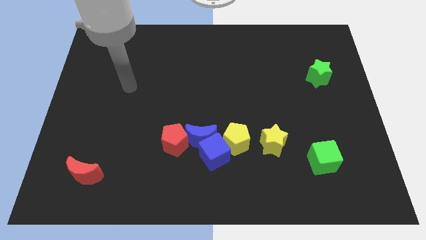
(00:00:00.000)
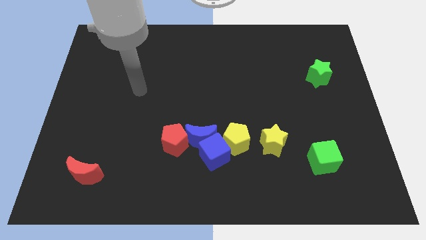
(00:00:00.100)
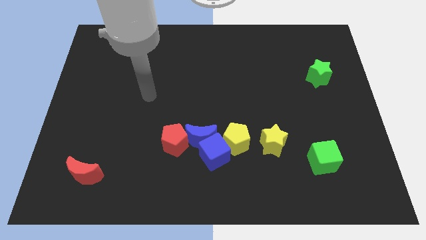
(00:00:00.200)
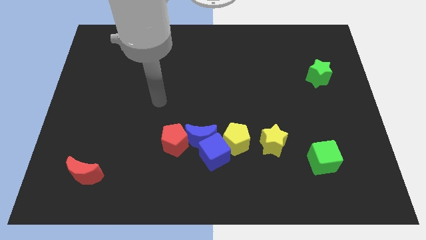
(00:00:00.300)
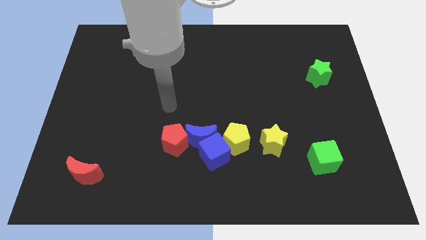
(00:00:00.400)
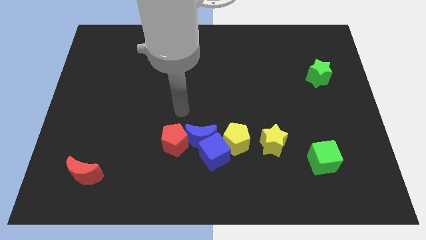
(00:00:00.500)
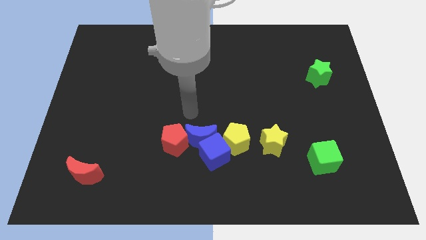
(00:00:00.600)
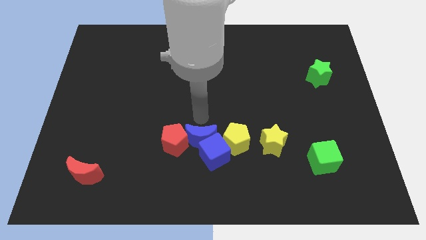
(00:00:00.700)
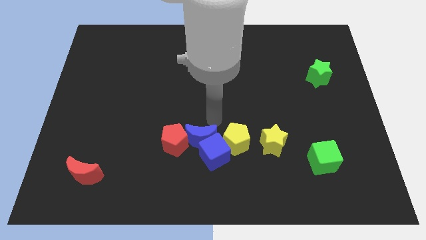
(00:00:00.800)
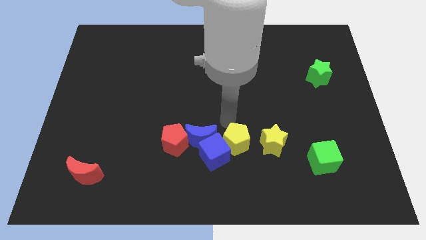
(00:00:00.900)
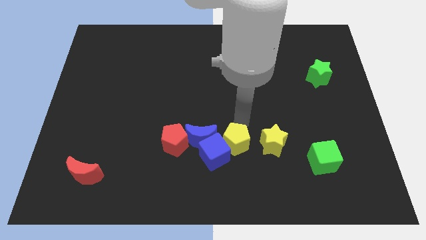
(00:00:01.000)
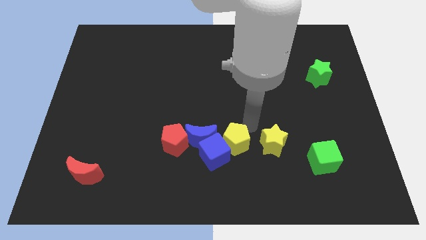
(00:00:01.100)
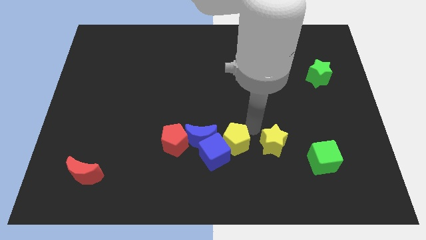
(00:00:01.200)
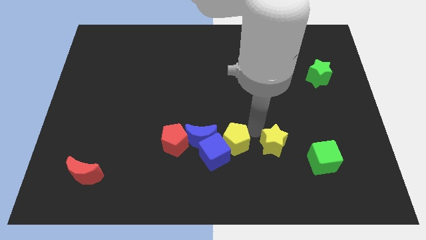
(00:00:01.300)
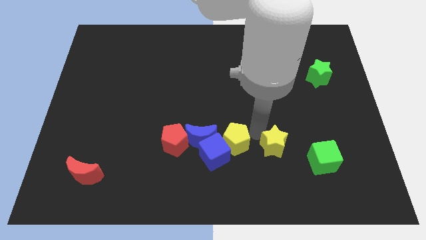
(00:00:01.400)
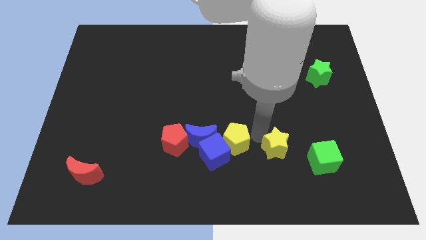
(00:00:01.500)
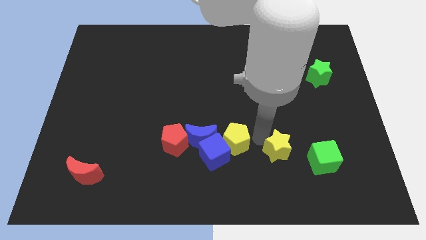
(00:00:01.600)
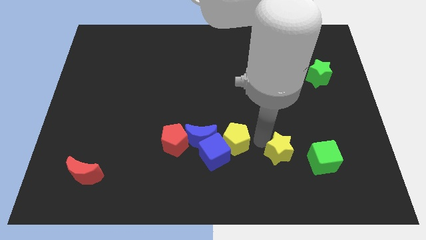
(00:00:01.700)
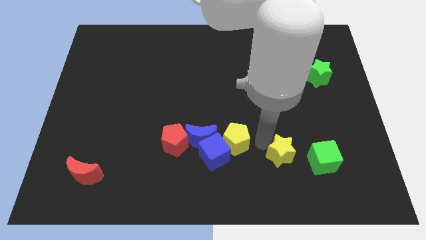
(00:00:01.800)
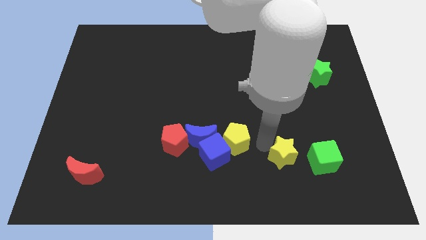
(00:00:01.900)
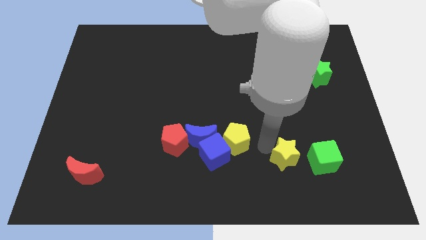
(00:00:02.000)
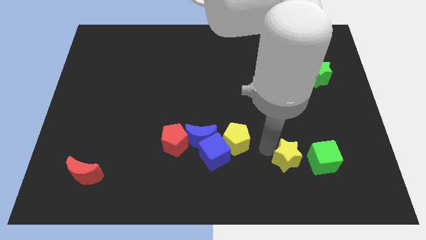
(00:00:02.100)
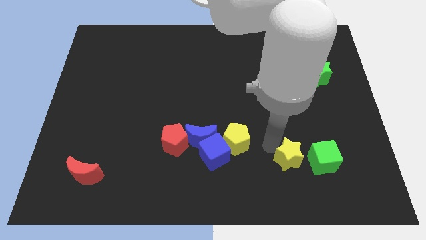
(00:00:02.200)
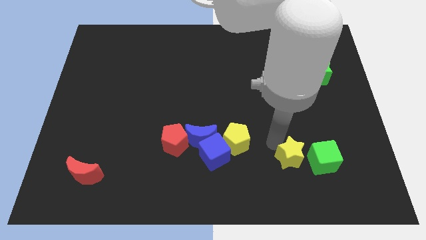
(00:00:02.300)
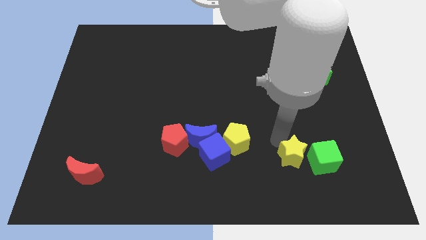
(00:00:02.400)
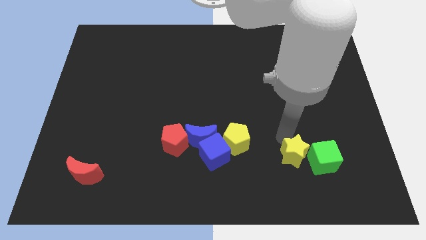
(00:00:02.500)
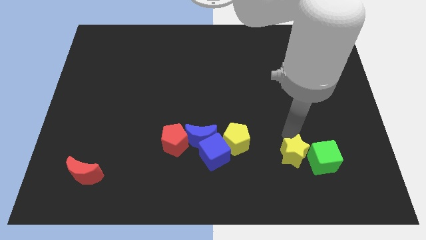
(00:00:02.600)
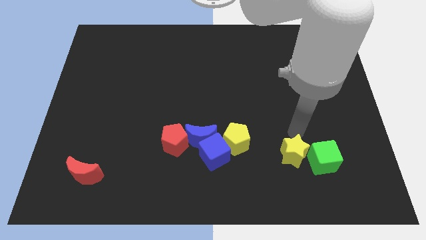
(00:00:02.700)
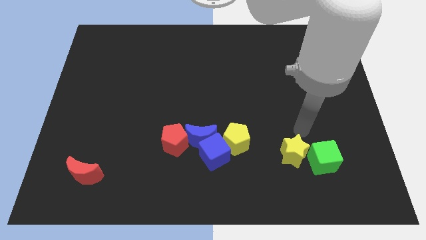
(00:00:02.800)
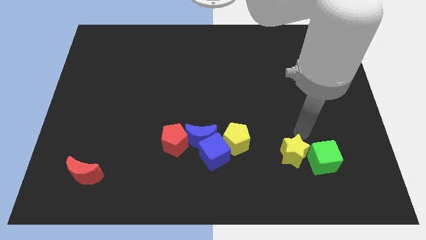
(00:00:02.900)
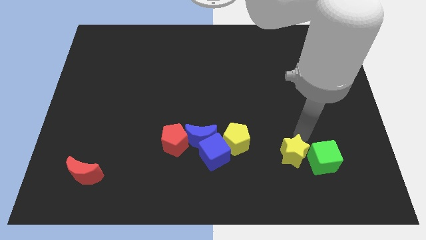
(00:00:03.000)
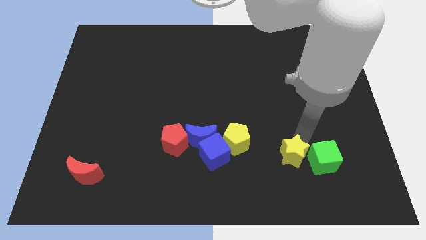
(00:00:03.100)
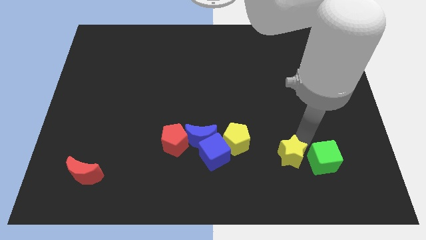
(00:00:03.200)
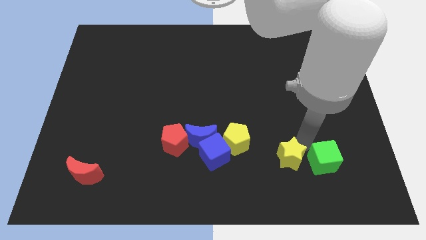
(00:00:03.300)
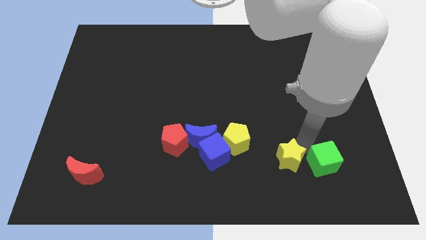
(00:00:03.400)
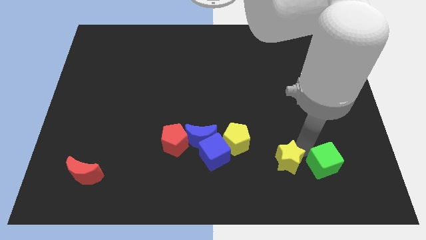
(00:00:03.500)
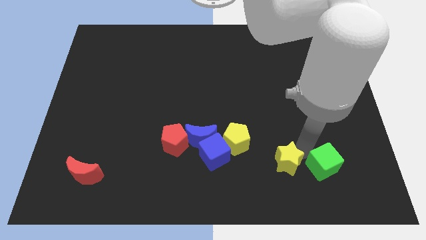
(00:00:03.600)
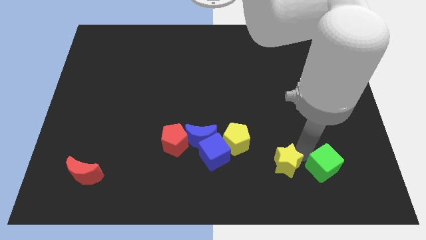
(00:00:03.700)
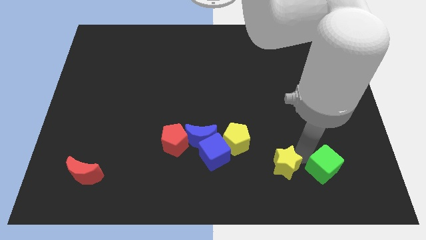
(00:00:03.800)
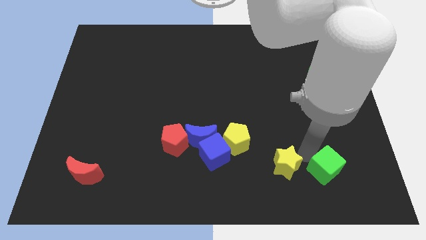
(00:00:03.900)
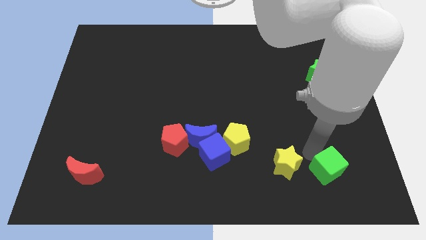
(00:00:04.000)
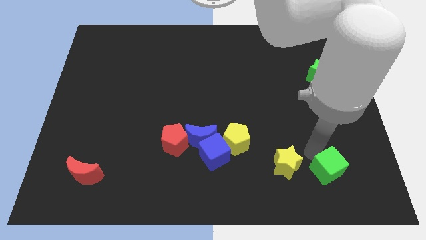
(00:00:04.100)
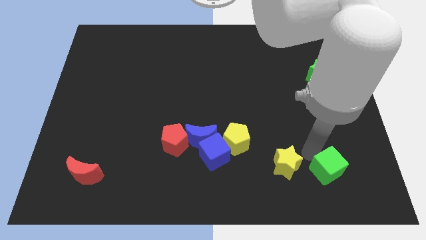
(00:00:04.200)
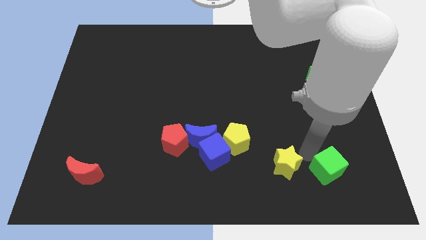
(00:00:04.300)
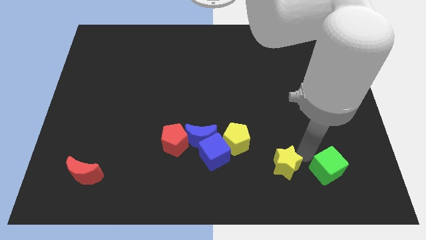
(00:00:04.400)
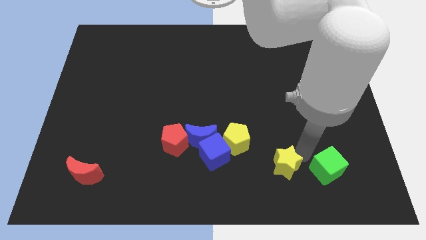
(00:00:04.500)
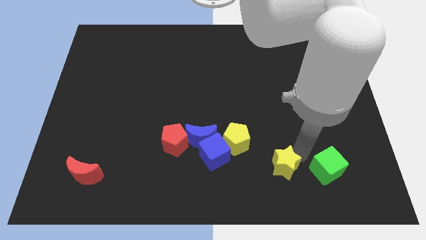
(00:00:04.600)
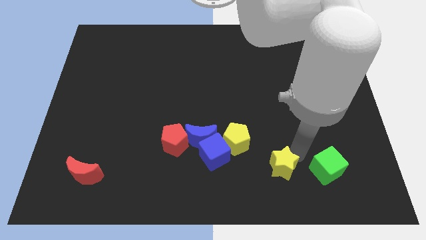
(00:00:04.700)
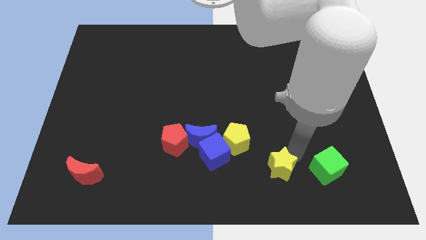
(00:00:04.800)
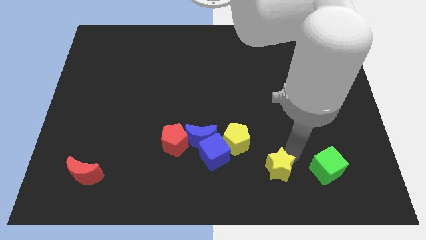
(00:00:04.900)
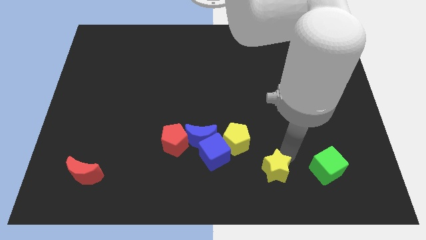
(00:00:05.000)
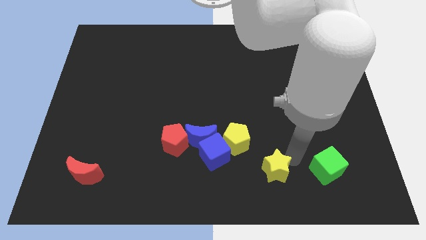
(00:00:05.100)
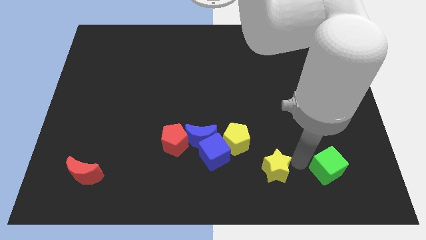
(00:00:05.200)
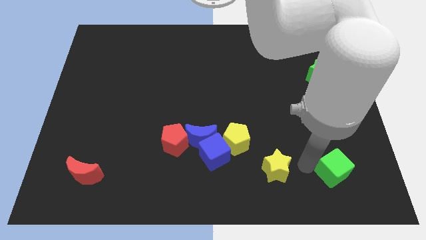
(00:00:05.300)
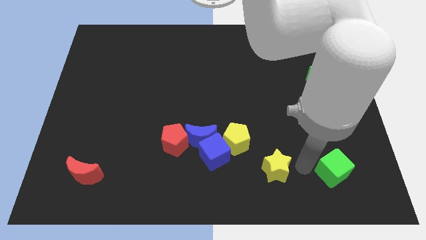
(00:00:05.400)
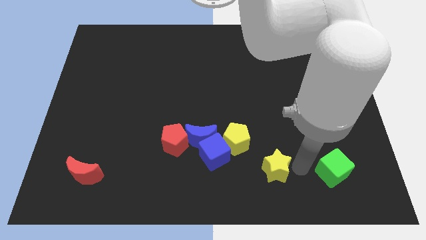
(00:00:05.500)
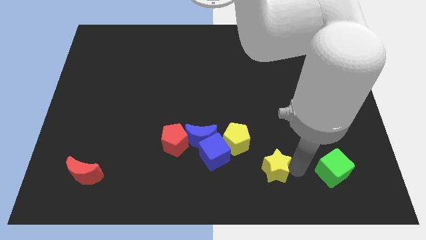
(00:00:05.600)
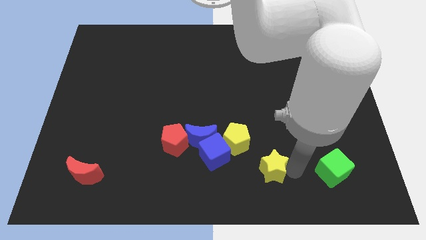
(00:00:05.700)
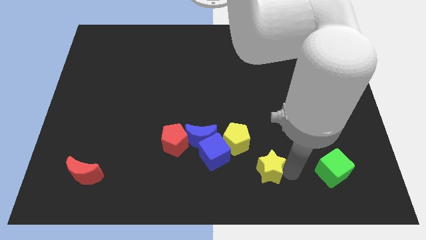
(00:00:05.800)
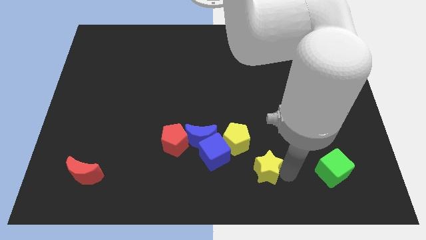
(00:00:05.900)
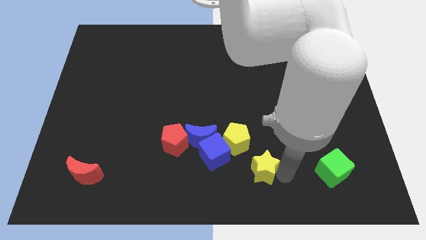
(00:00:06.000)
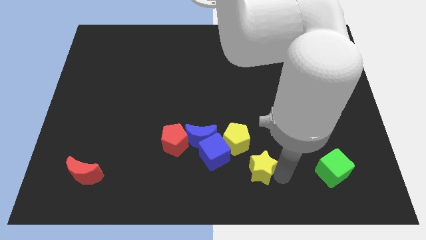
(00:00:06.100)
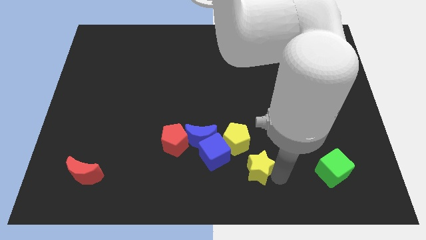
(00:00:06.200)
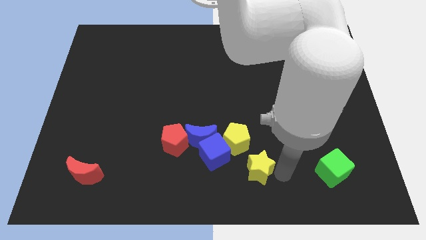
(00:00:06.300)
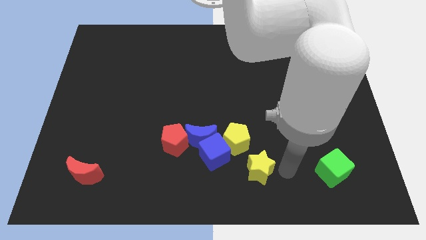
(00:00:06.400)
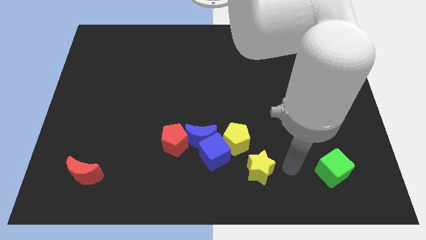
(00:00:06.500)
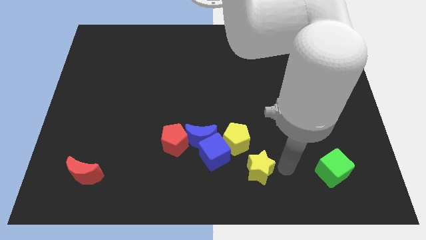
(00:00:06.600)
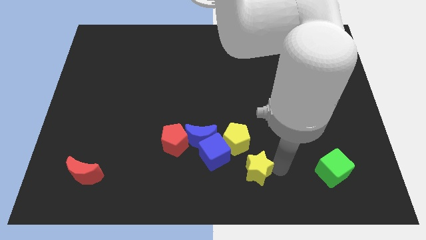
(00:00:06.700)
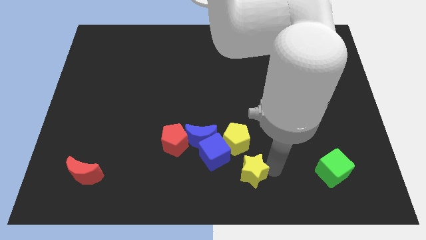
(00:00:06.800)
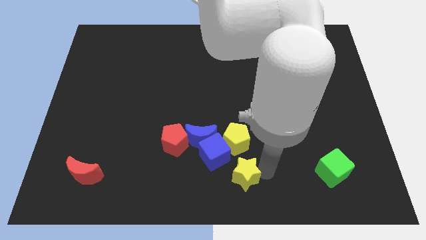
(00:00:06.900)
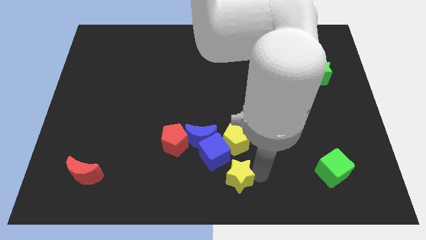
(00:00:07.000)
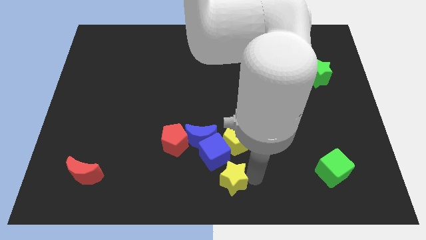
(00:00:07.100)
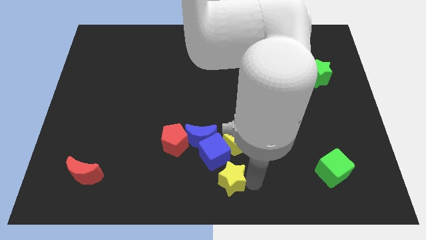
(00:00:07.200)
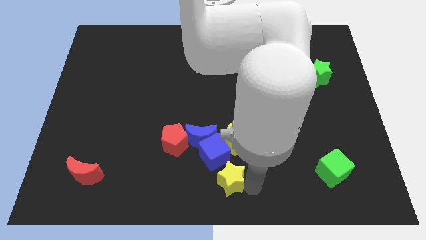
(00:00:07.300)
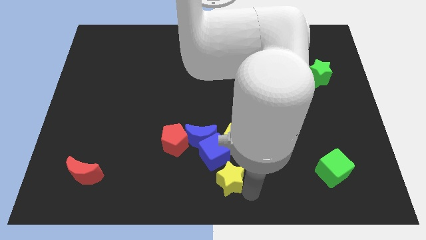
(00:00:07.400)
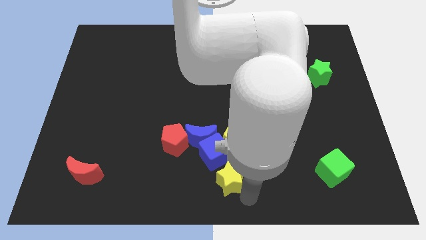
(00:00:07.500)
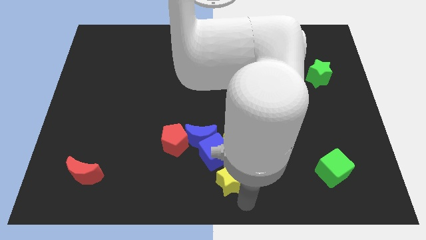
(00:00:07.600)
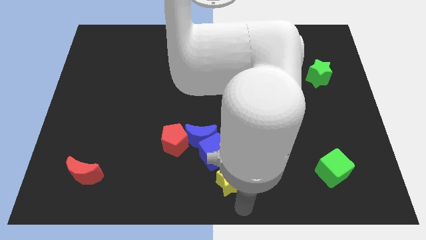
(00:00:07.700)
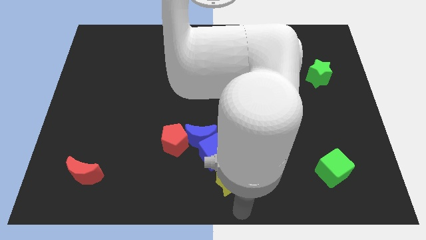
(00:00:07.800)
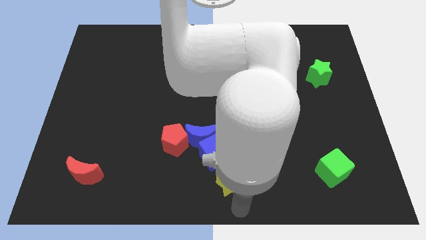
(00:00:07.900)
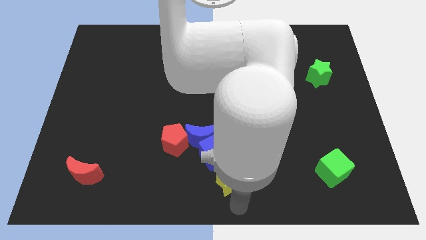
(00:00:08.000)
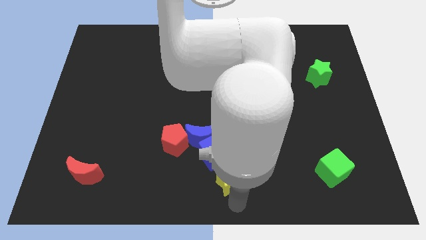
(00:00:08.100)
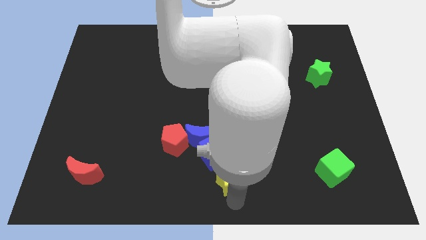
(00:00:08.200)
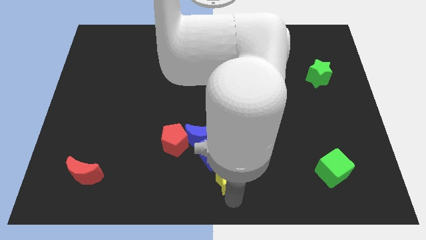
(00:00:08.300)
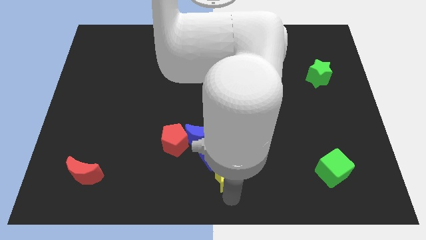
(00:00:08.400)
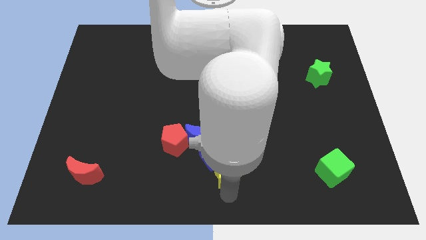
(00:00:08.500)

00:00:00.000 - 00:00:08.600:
push the yellow star close to the blue cube
